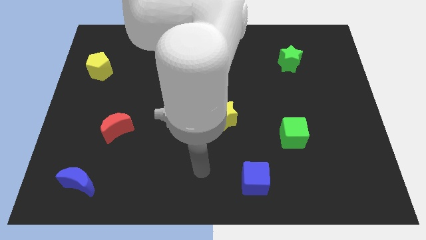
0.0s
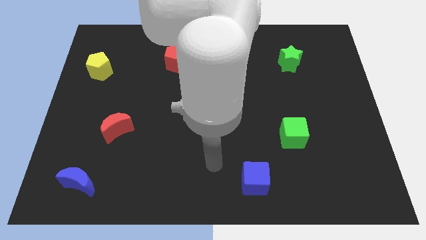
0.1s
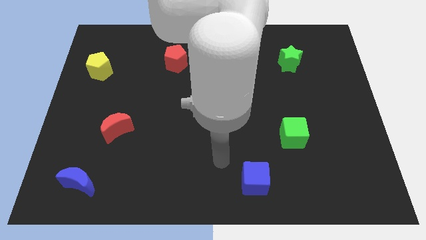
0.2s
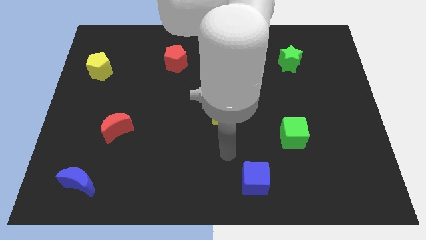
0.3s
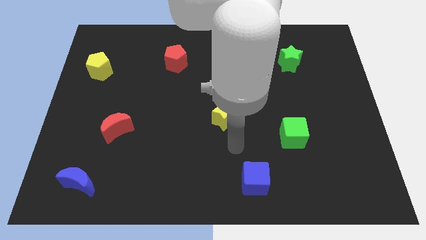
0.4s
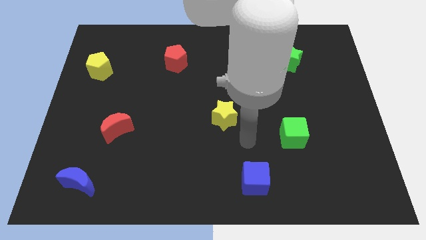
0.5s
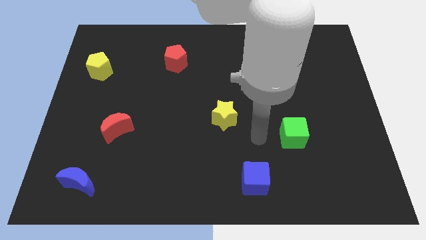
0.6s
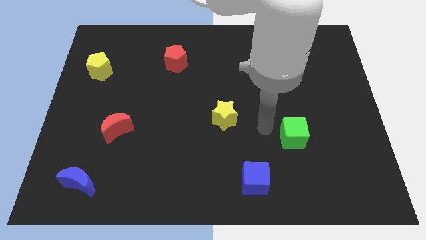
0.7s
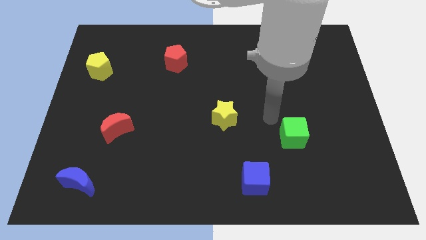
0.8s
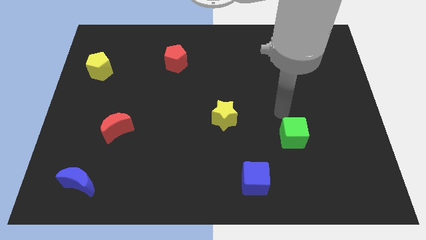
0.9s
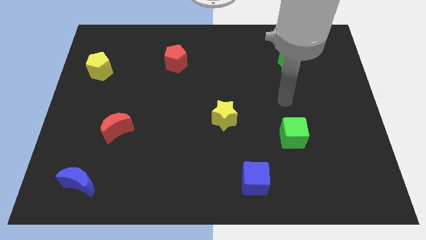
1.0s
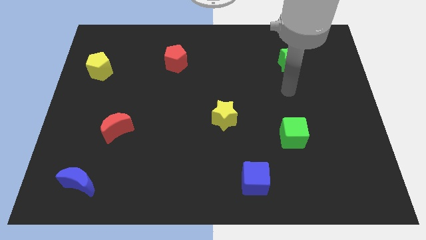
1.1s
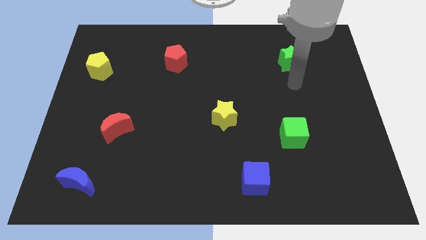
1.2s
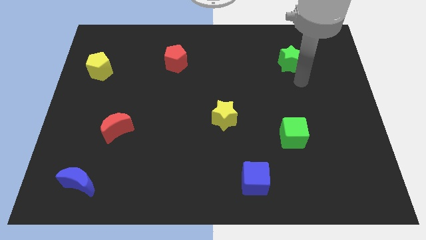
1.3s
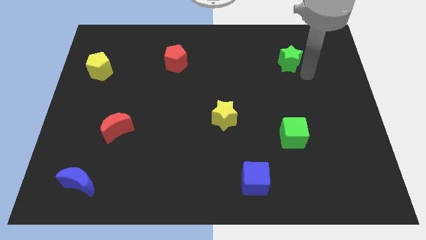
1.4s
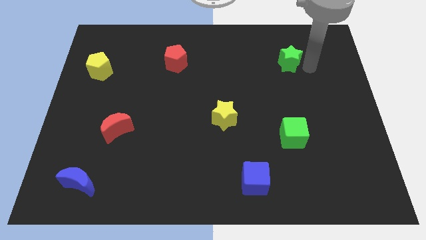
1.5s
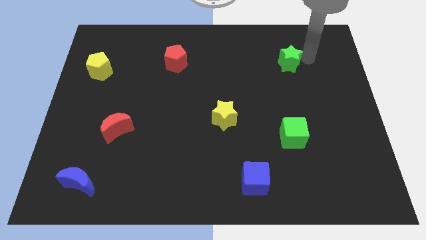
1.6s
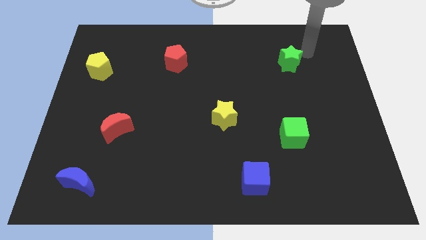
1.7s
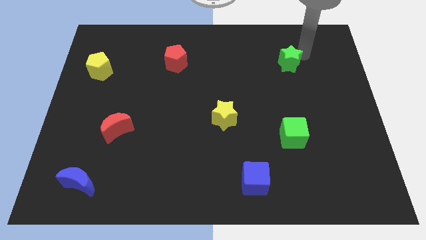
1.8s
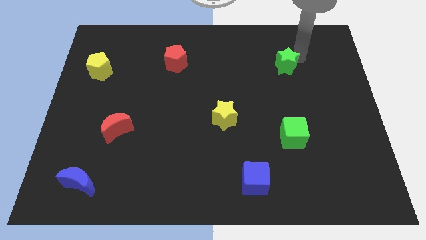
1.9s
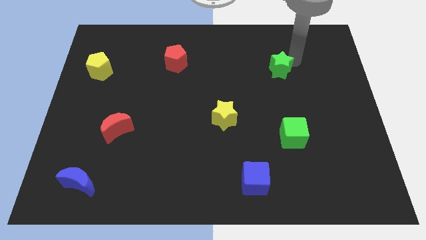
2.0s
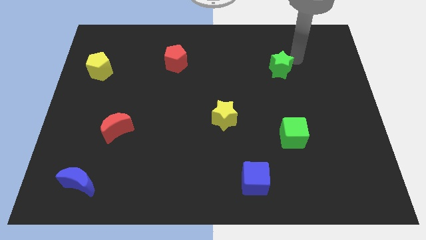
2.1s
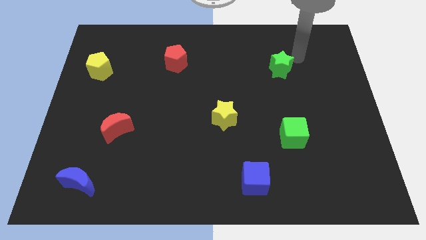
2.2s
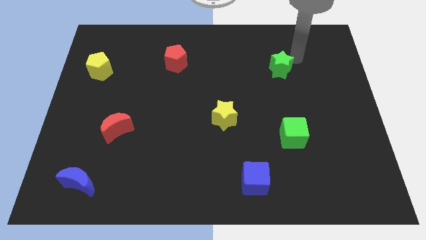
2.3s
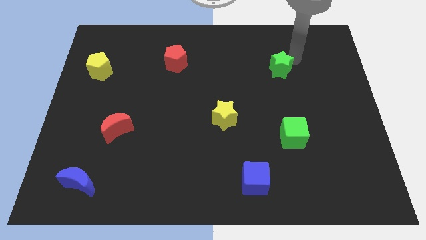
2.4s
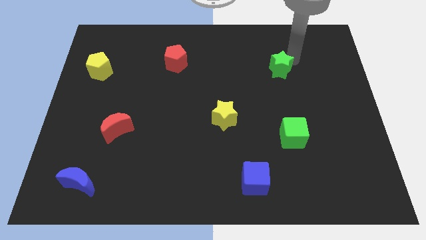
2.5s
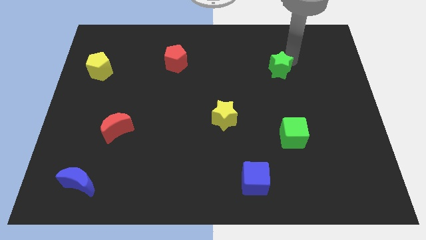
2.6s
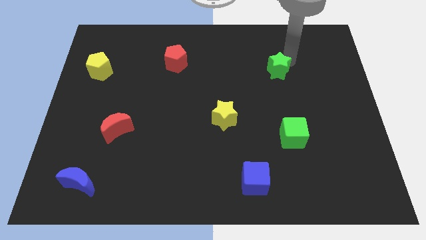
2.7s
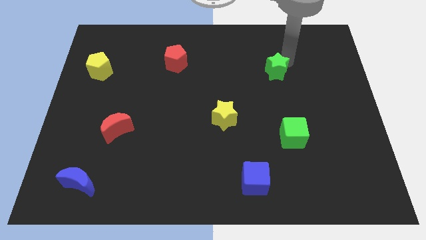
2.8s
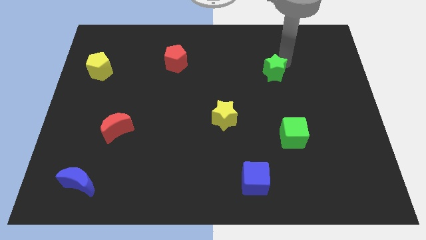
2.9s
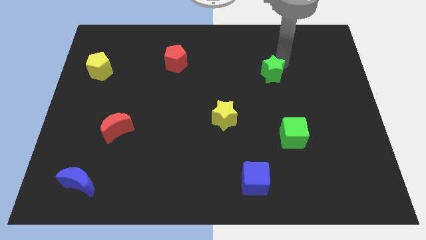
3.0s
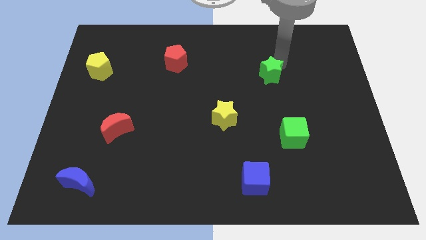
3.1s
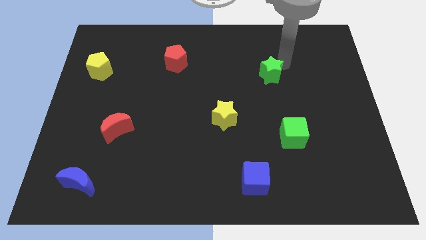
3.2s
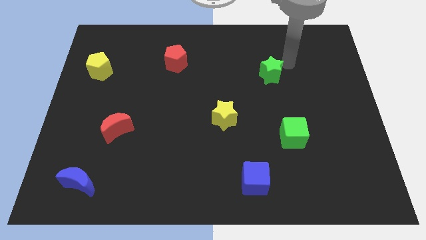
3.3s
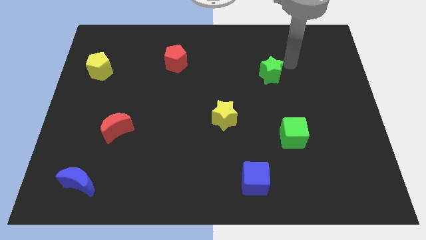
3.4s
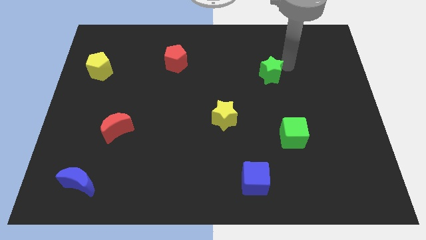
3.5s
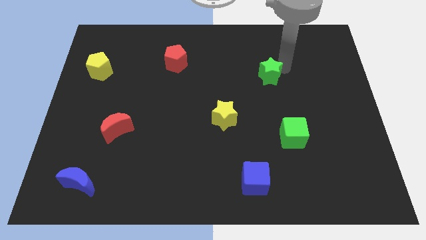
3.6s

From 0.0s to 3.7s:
slightly slide the green star downwards and then to the left

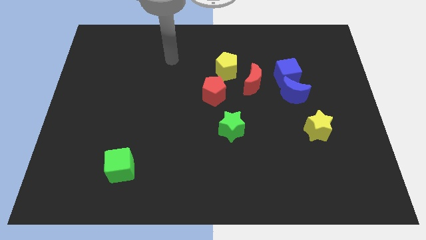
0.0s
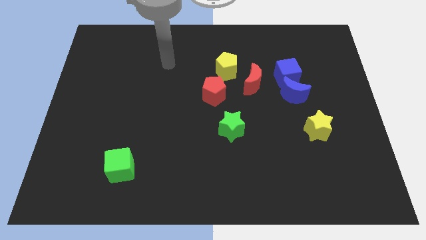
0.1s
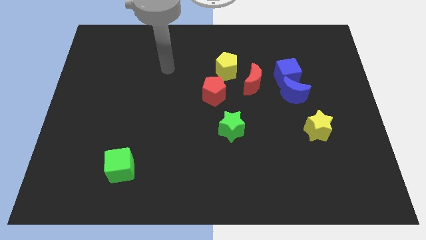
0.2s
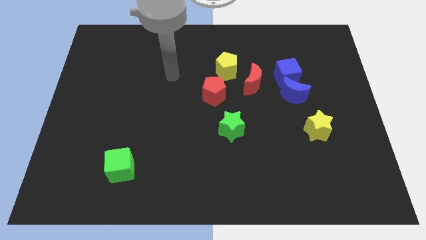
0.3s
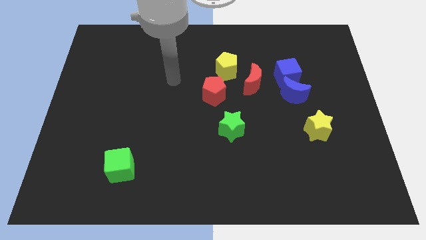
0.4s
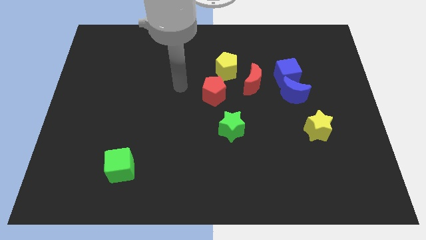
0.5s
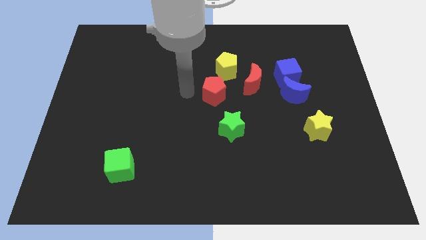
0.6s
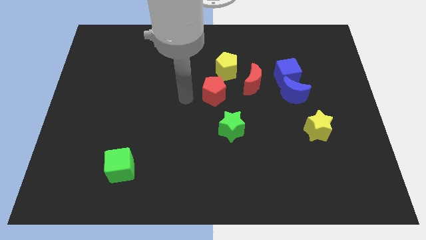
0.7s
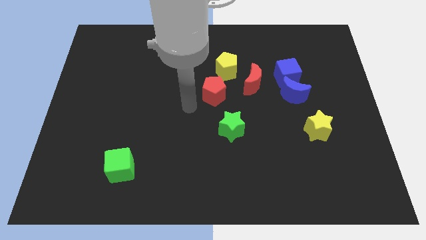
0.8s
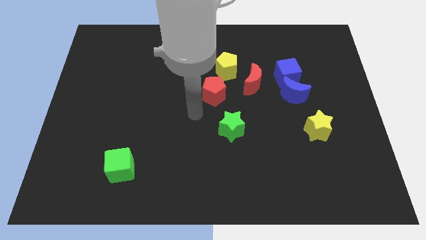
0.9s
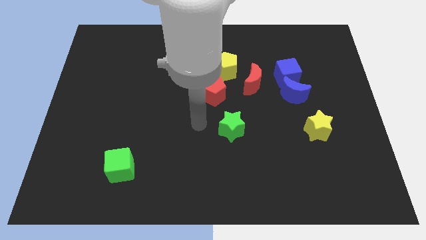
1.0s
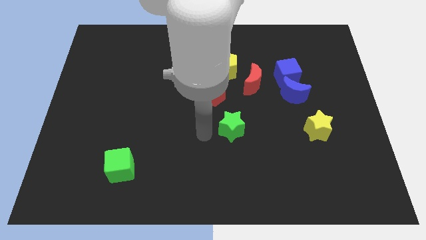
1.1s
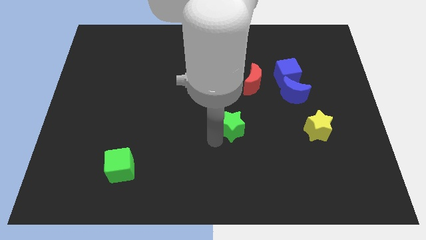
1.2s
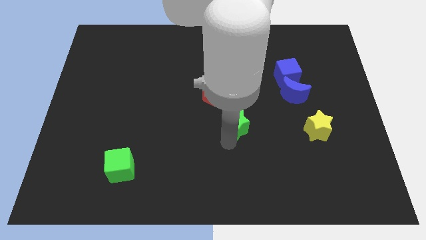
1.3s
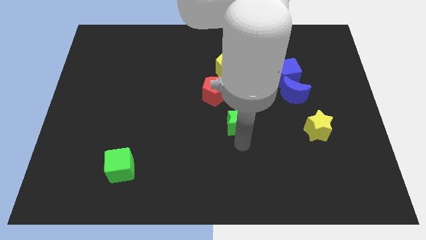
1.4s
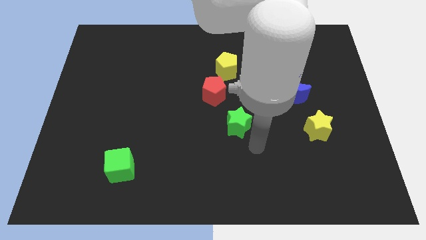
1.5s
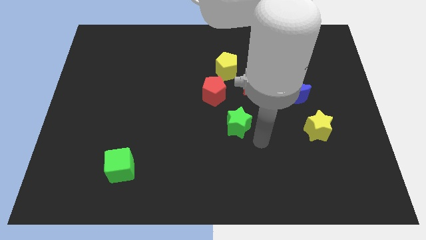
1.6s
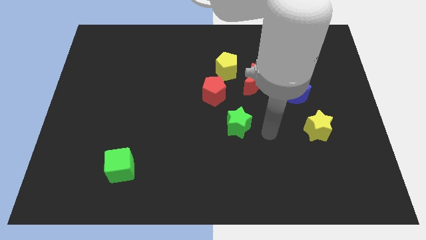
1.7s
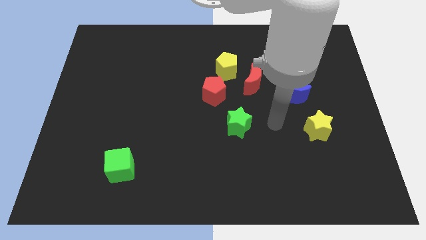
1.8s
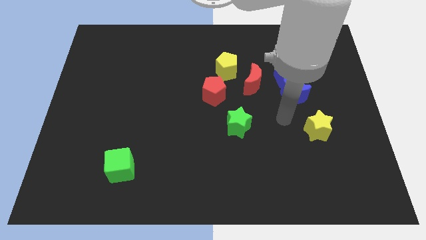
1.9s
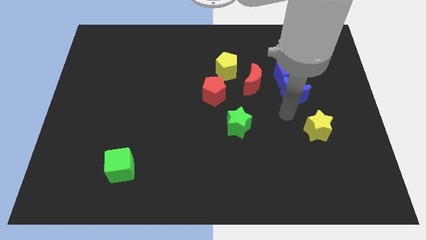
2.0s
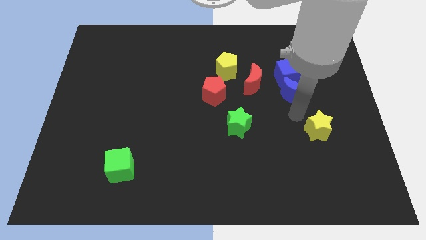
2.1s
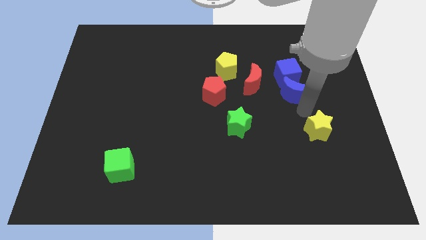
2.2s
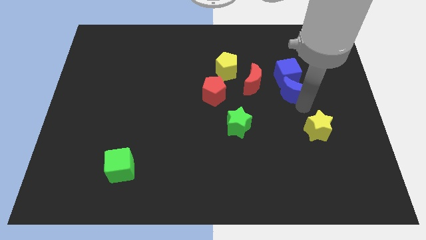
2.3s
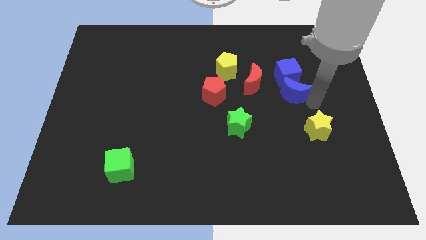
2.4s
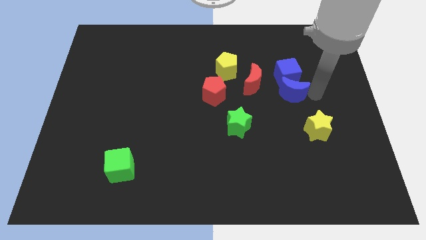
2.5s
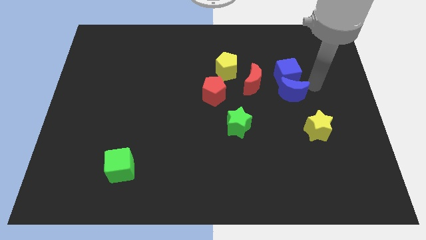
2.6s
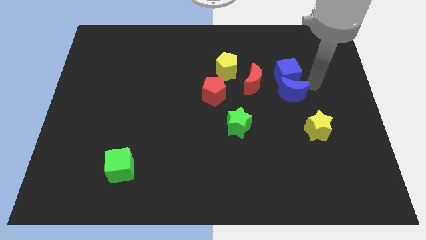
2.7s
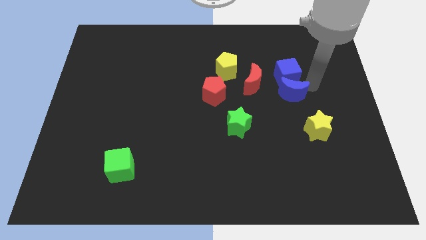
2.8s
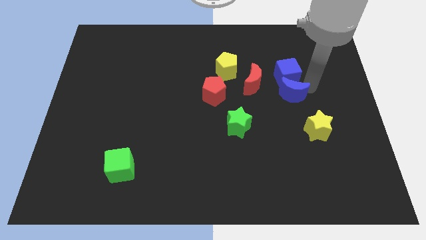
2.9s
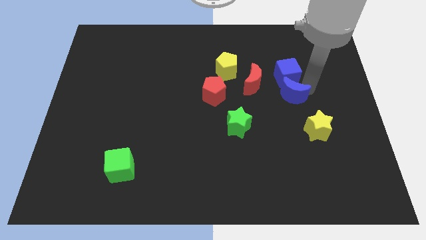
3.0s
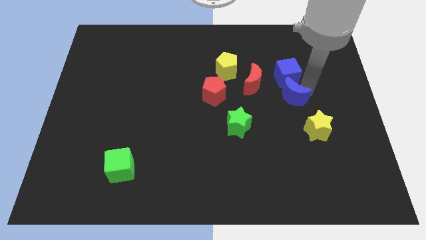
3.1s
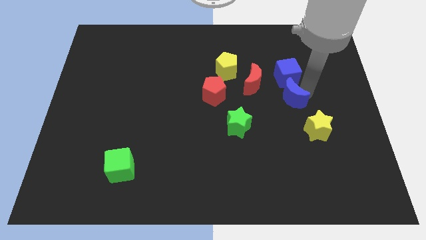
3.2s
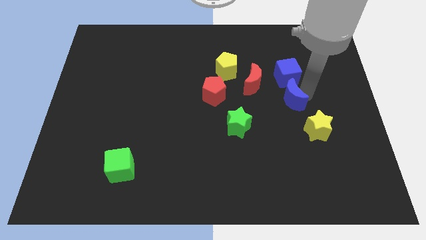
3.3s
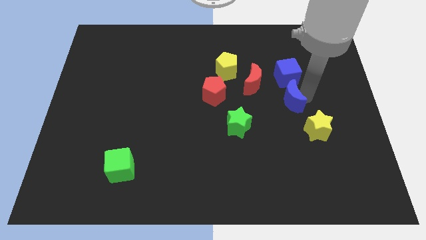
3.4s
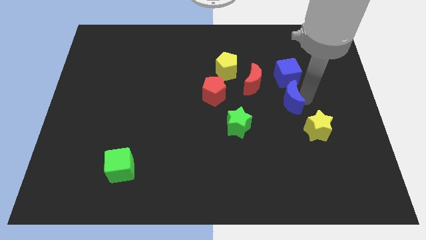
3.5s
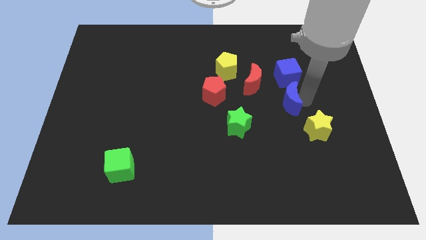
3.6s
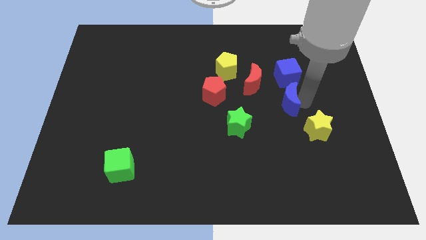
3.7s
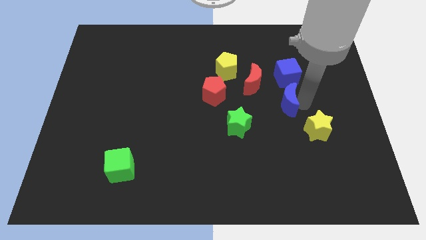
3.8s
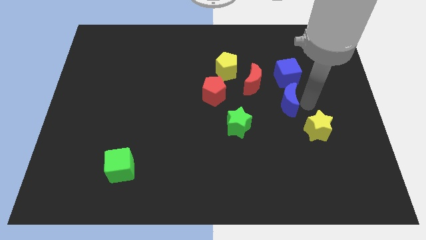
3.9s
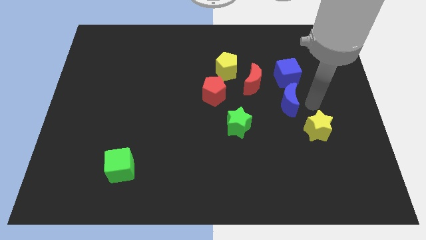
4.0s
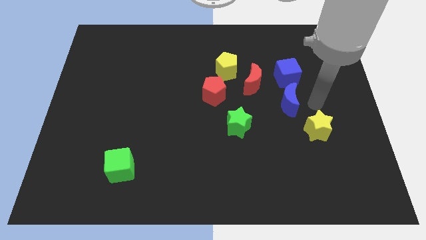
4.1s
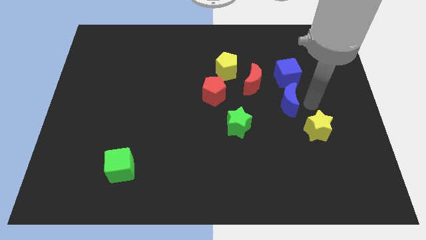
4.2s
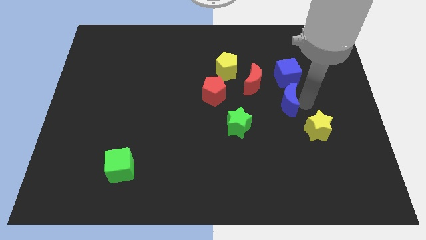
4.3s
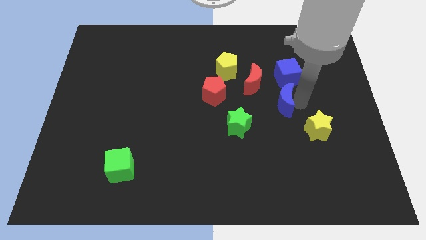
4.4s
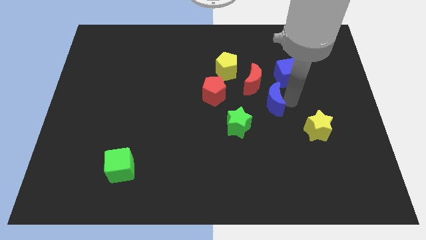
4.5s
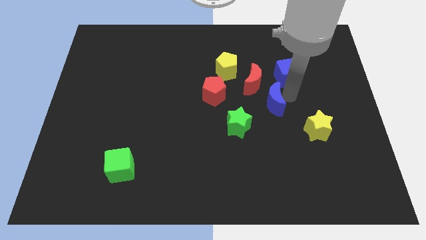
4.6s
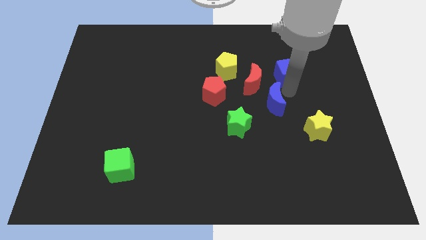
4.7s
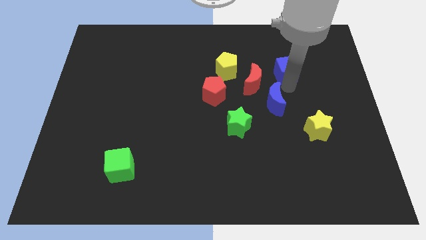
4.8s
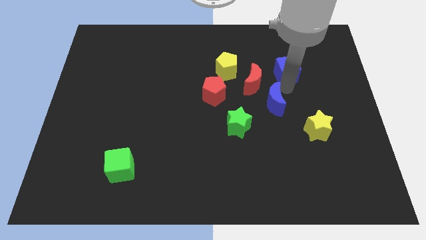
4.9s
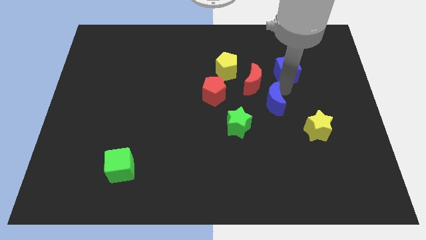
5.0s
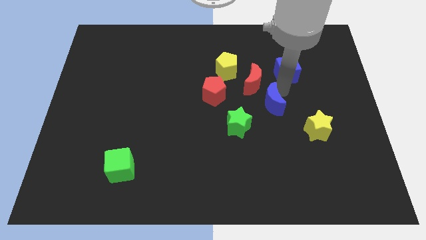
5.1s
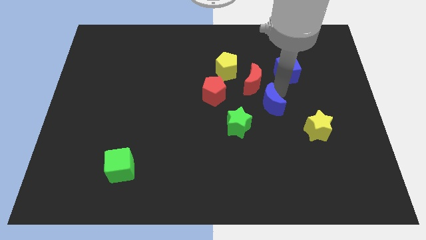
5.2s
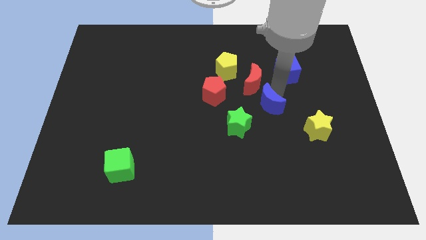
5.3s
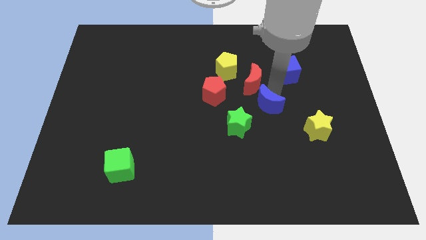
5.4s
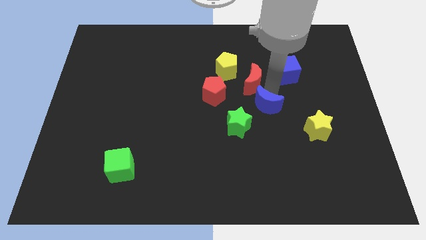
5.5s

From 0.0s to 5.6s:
slightly slide the blue moon down and left diagonally
